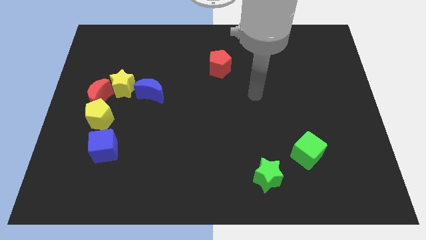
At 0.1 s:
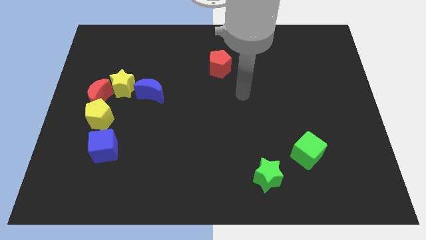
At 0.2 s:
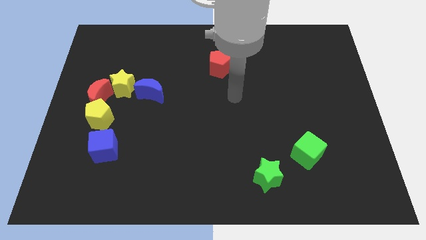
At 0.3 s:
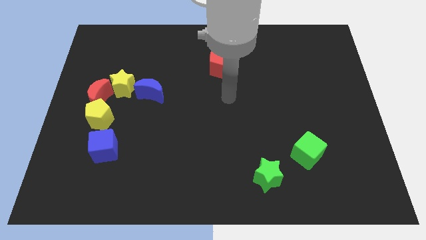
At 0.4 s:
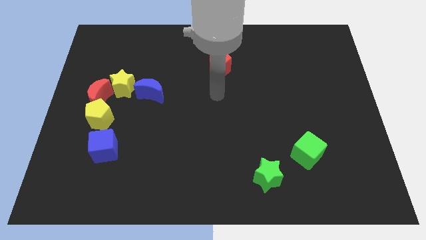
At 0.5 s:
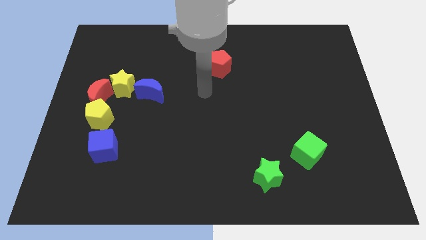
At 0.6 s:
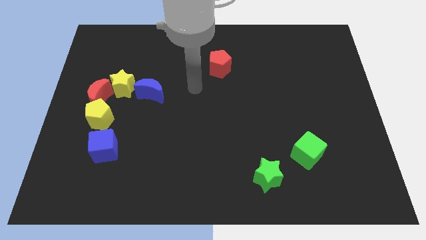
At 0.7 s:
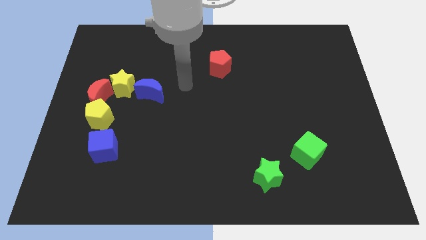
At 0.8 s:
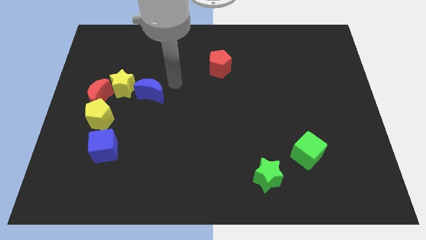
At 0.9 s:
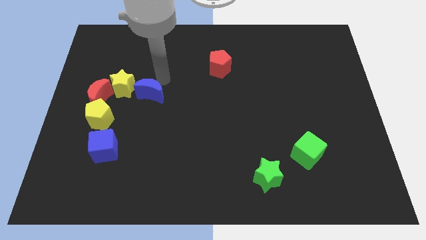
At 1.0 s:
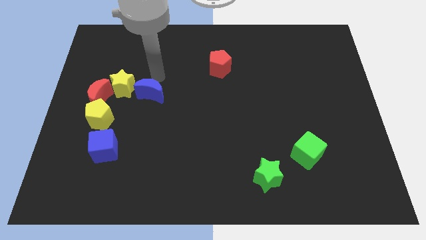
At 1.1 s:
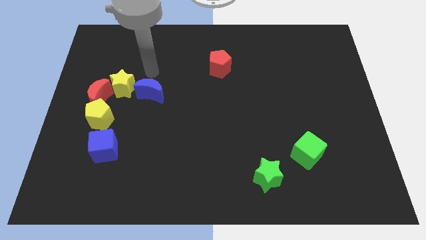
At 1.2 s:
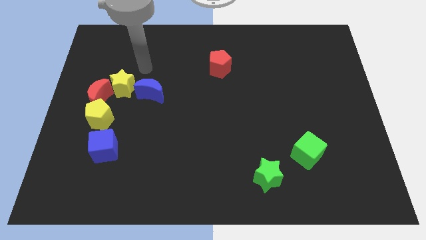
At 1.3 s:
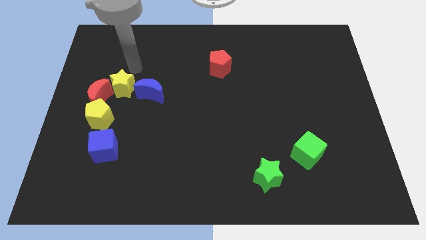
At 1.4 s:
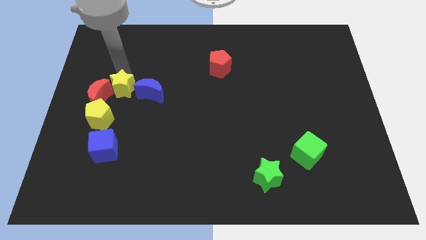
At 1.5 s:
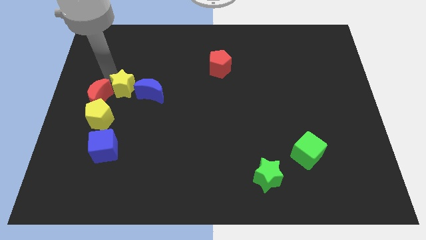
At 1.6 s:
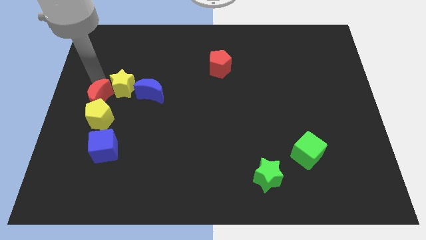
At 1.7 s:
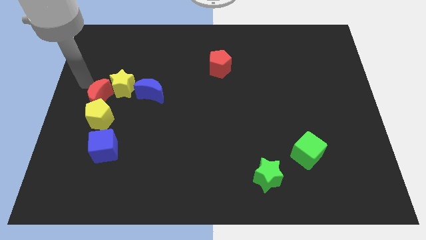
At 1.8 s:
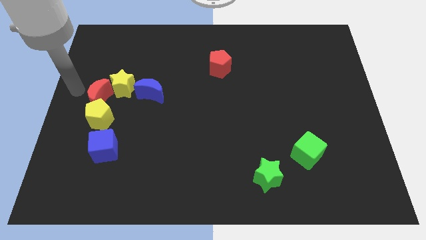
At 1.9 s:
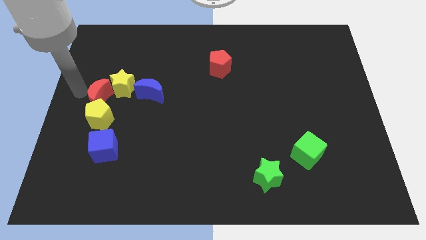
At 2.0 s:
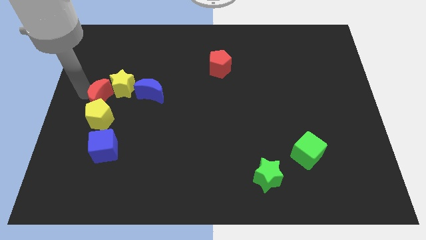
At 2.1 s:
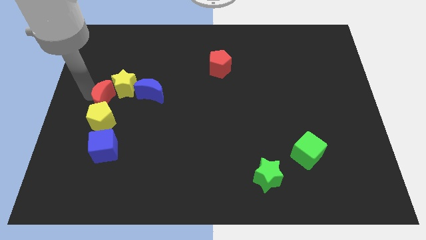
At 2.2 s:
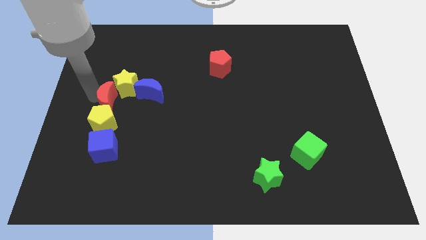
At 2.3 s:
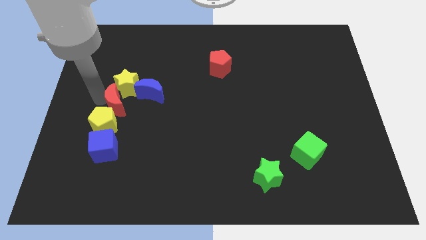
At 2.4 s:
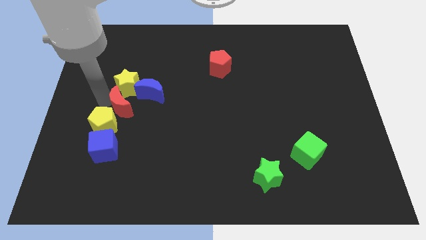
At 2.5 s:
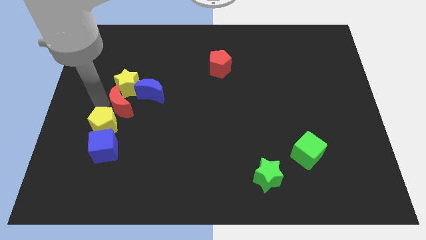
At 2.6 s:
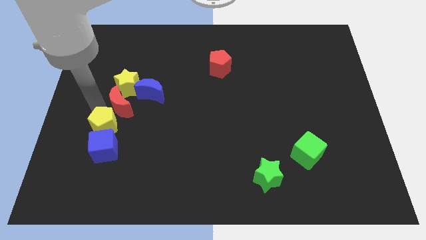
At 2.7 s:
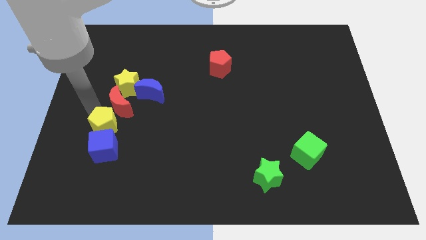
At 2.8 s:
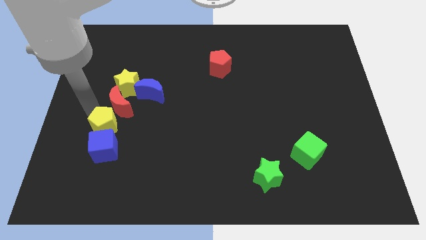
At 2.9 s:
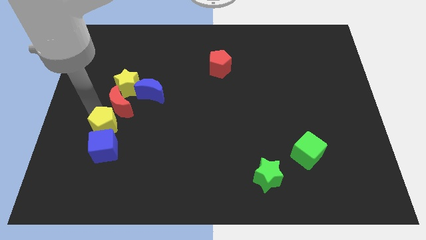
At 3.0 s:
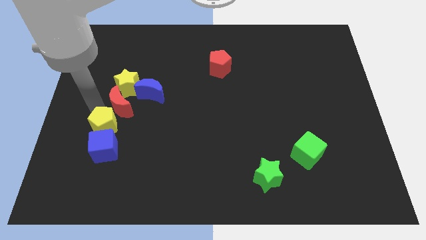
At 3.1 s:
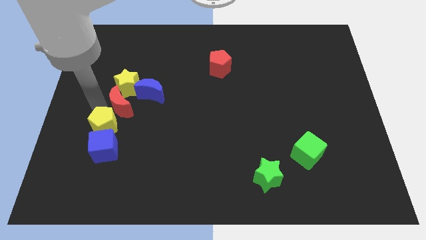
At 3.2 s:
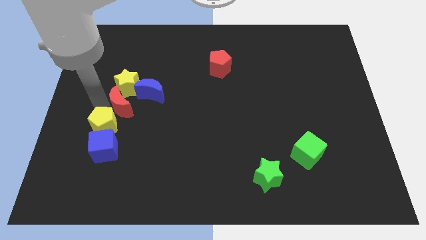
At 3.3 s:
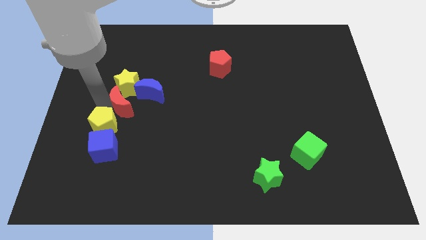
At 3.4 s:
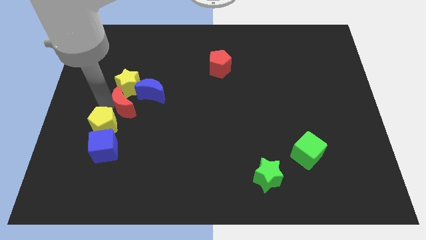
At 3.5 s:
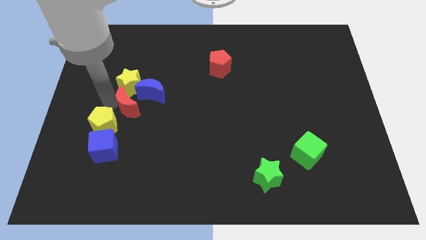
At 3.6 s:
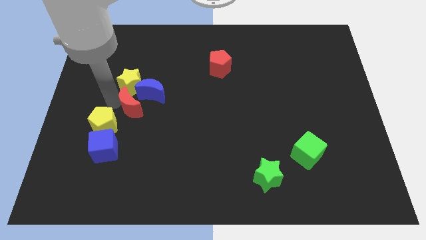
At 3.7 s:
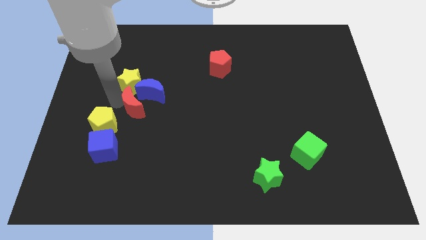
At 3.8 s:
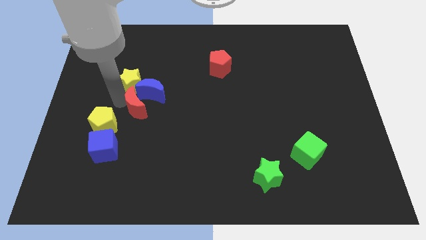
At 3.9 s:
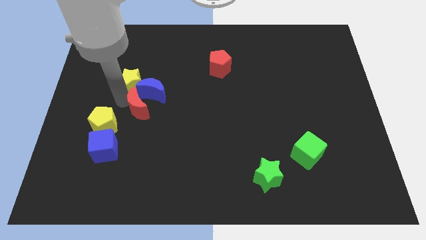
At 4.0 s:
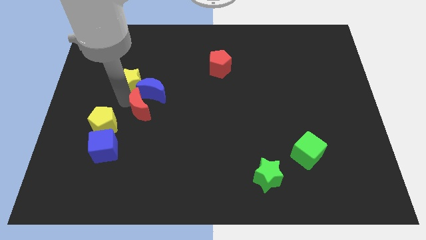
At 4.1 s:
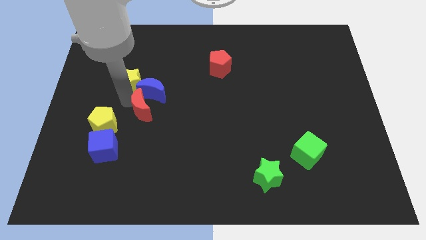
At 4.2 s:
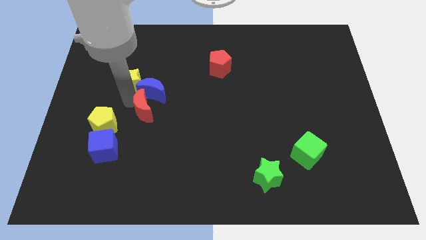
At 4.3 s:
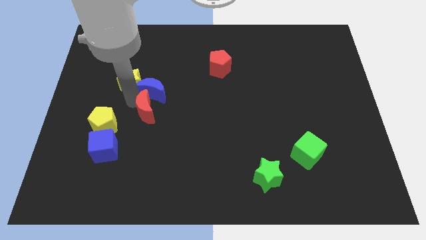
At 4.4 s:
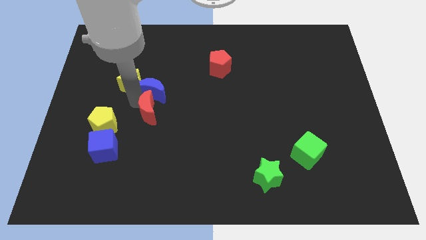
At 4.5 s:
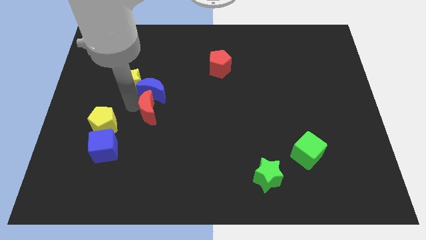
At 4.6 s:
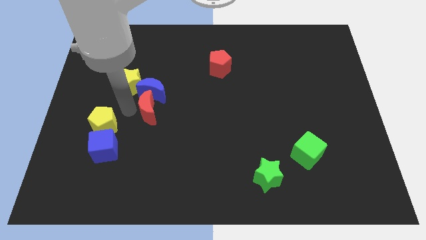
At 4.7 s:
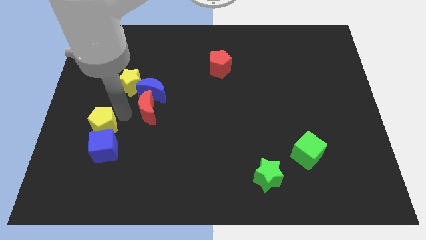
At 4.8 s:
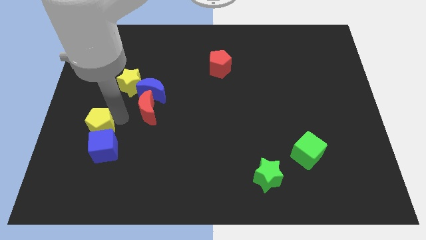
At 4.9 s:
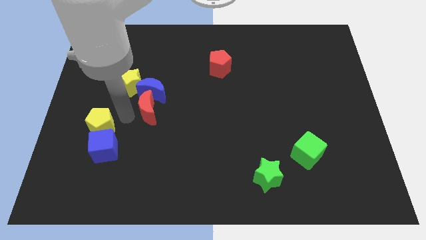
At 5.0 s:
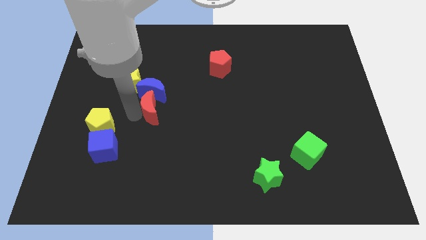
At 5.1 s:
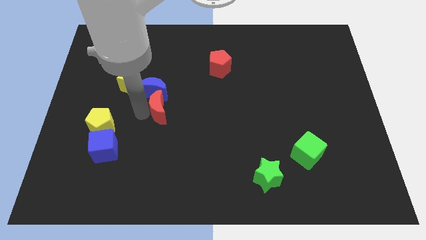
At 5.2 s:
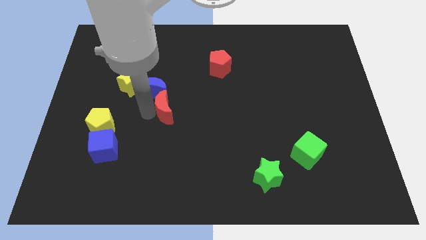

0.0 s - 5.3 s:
put the red moon to the middle of the board

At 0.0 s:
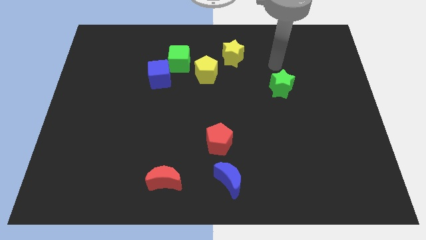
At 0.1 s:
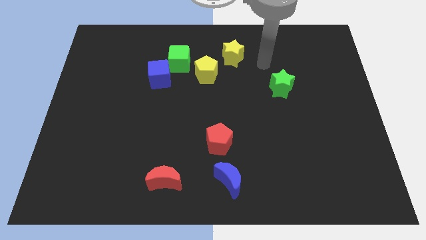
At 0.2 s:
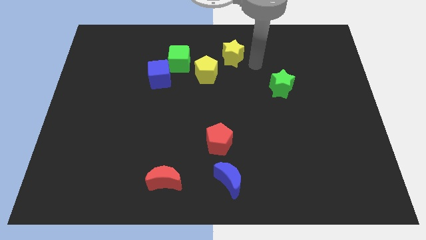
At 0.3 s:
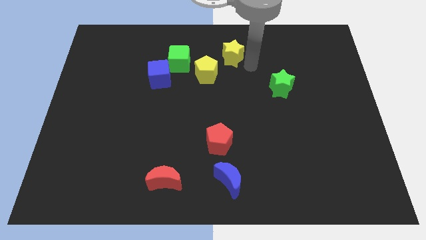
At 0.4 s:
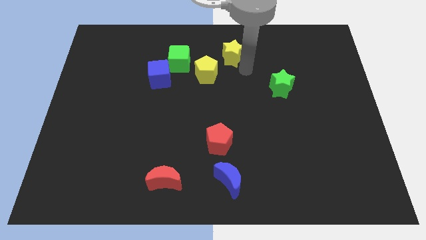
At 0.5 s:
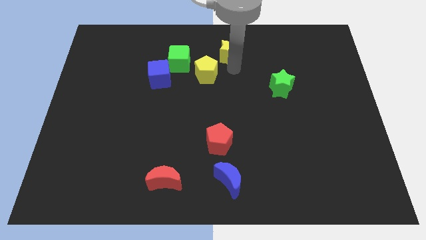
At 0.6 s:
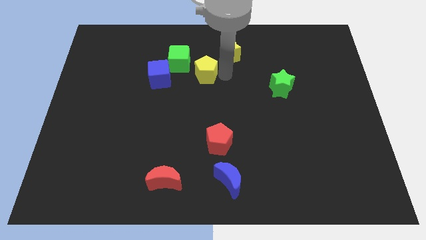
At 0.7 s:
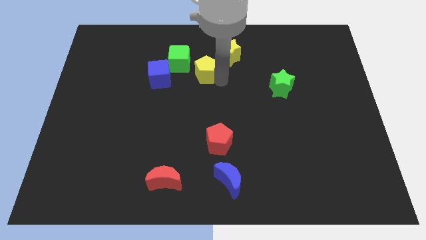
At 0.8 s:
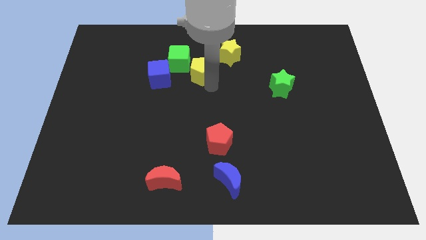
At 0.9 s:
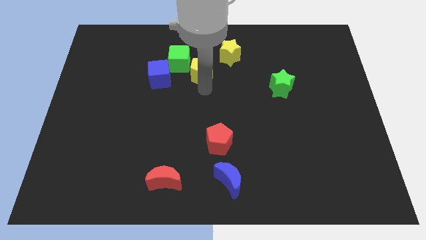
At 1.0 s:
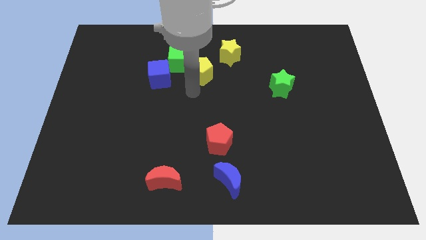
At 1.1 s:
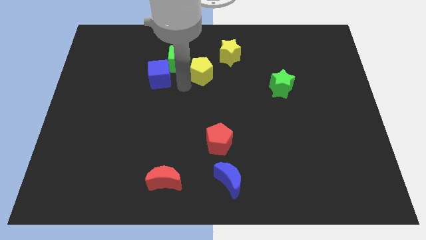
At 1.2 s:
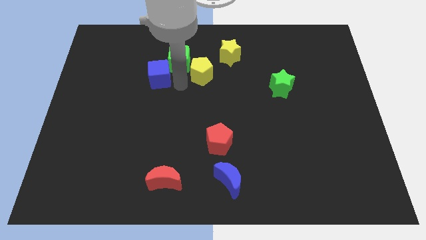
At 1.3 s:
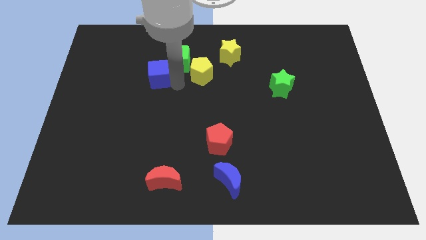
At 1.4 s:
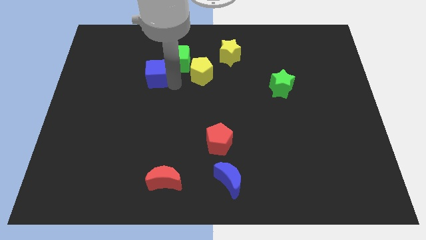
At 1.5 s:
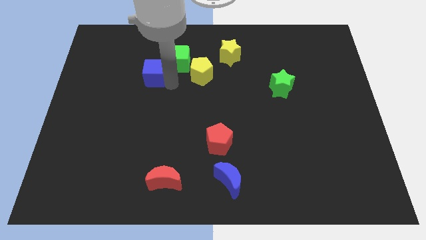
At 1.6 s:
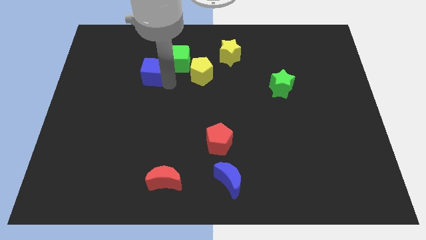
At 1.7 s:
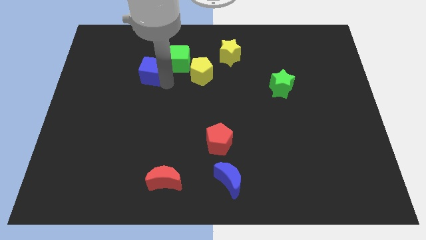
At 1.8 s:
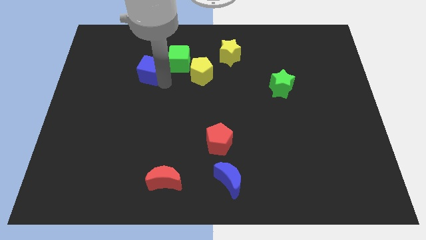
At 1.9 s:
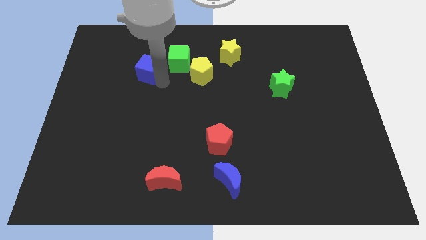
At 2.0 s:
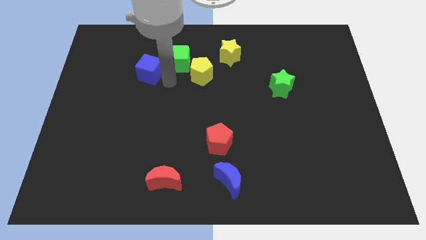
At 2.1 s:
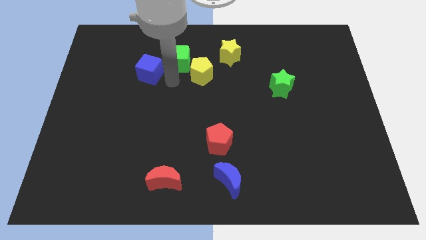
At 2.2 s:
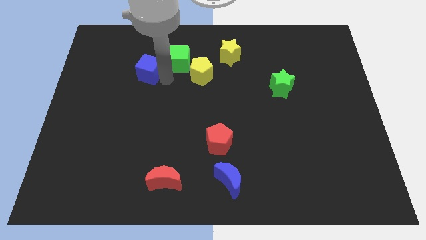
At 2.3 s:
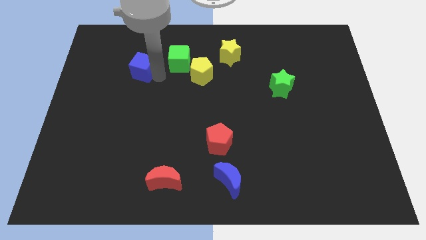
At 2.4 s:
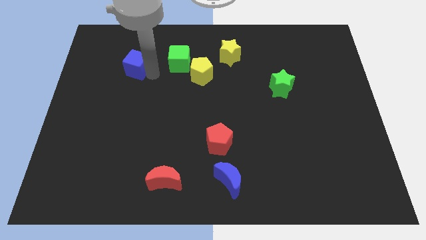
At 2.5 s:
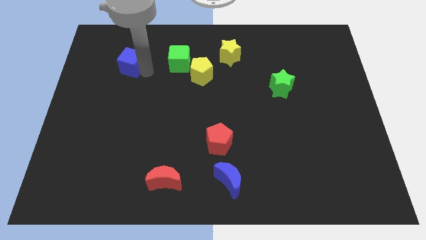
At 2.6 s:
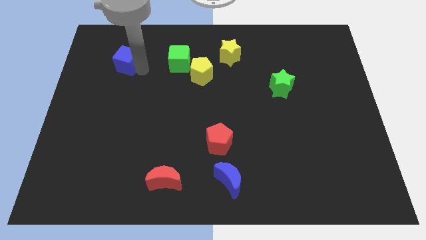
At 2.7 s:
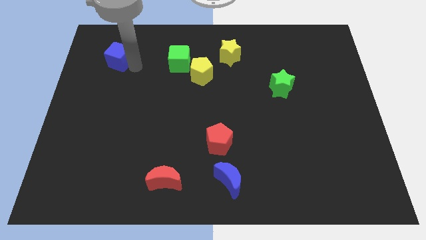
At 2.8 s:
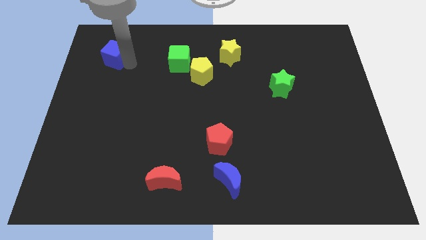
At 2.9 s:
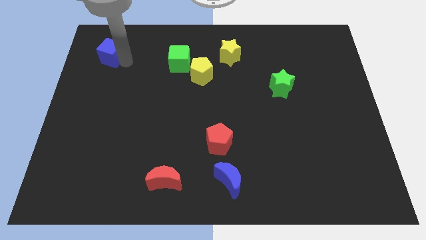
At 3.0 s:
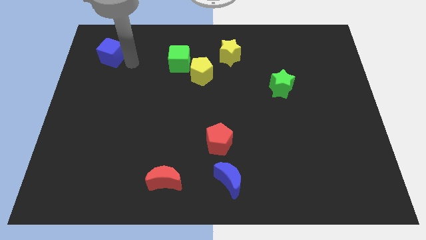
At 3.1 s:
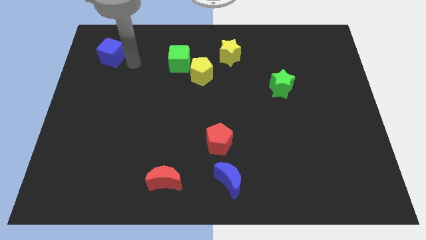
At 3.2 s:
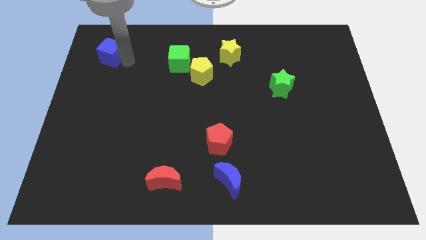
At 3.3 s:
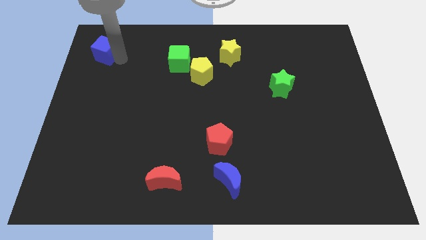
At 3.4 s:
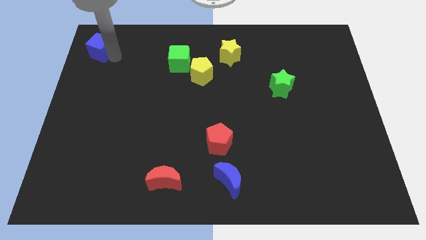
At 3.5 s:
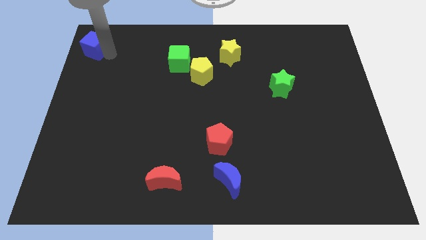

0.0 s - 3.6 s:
move the blue cube to the top left
